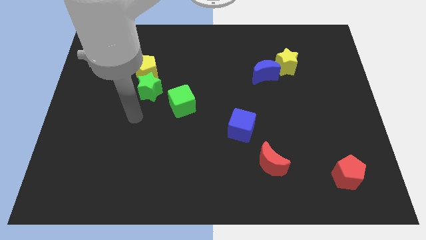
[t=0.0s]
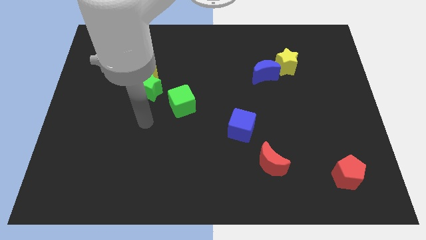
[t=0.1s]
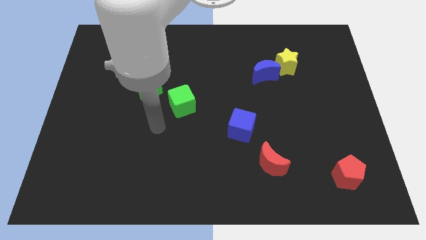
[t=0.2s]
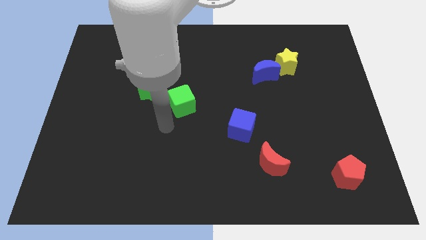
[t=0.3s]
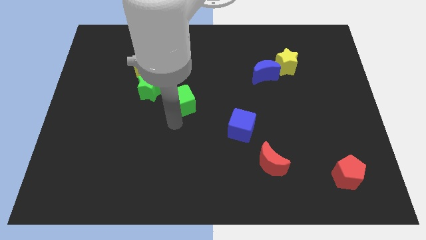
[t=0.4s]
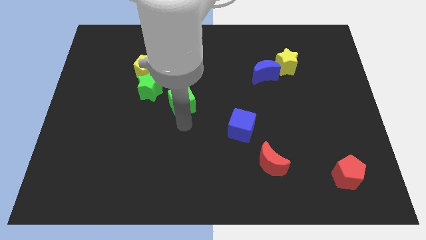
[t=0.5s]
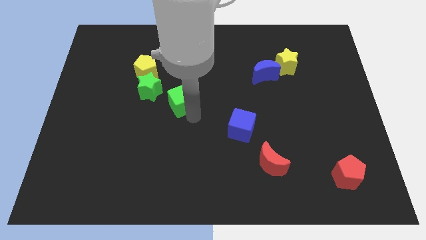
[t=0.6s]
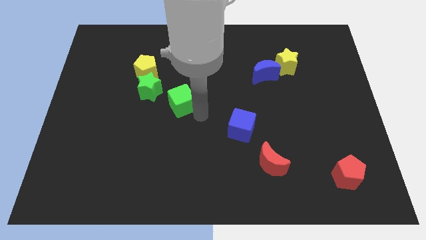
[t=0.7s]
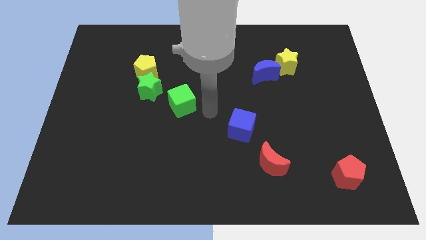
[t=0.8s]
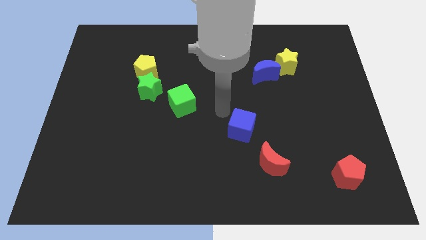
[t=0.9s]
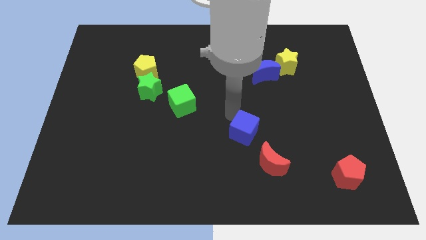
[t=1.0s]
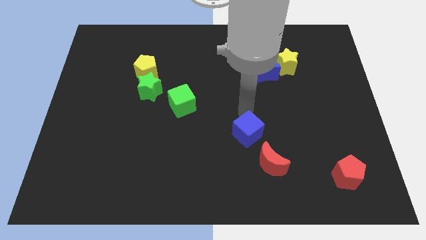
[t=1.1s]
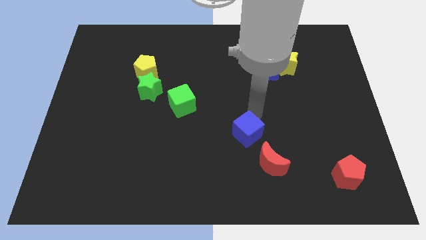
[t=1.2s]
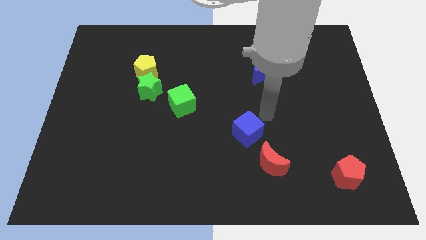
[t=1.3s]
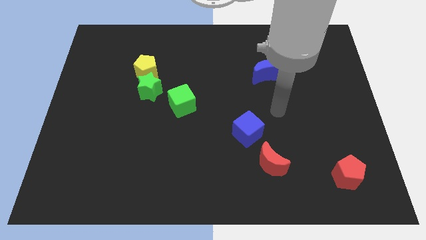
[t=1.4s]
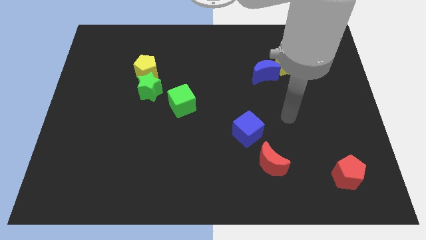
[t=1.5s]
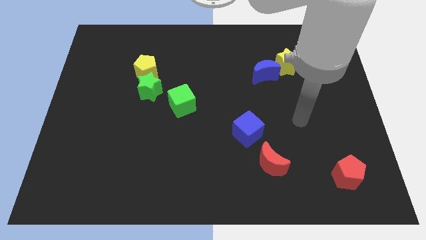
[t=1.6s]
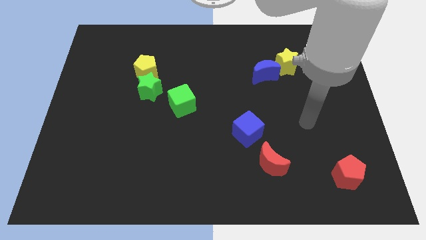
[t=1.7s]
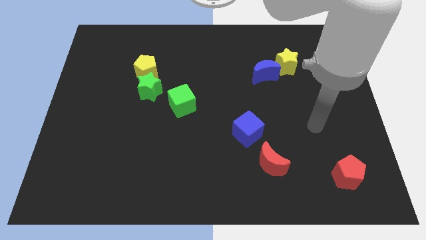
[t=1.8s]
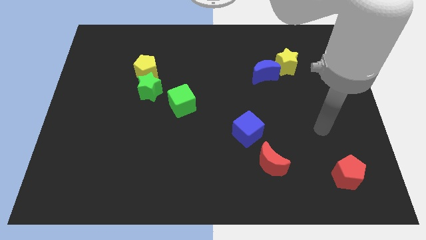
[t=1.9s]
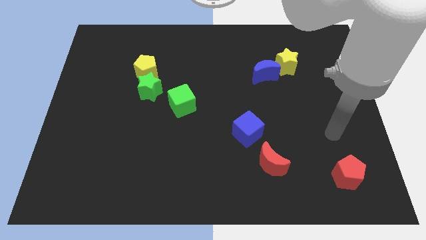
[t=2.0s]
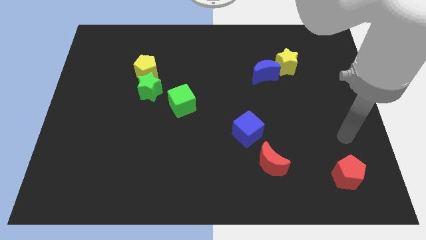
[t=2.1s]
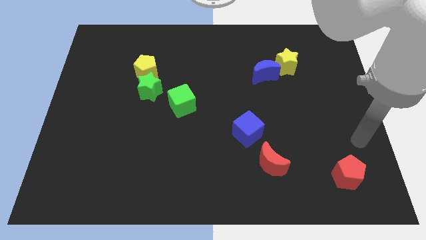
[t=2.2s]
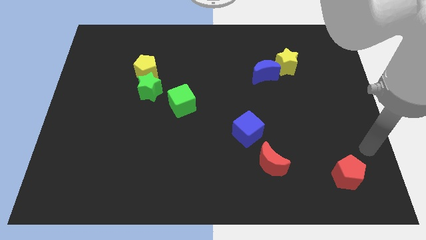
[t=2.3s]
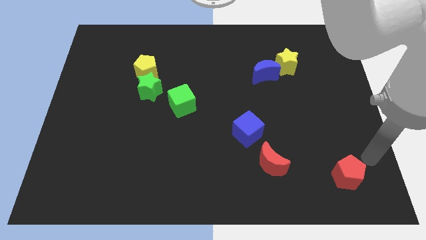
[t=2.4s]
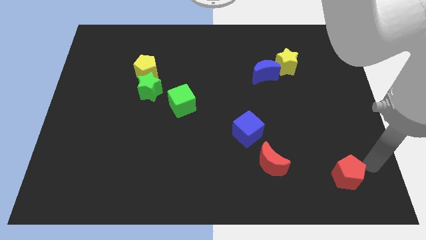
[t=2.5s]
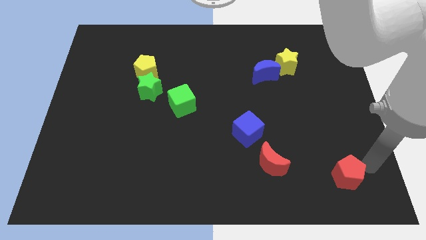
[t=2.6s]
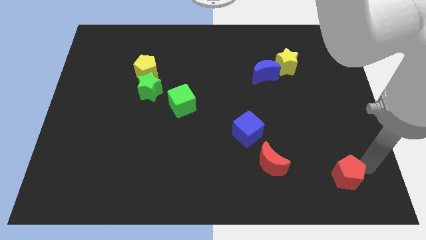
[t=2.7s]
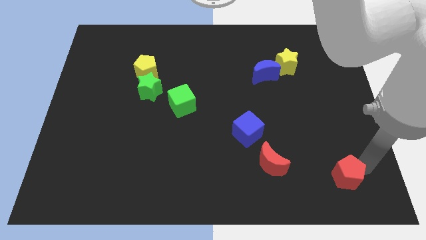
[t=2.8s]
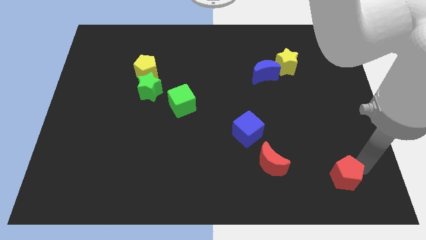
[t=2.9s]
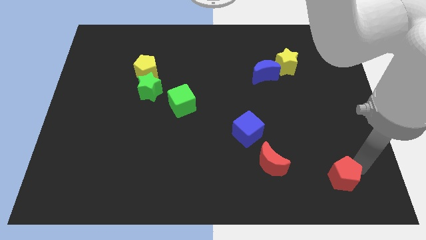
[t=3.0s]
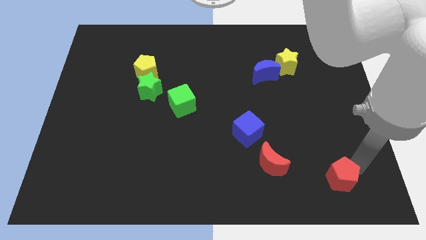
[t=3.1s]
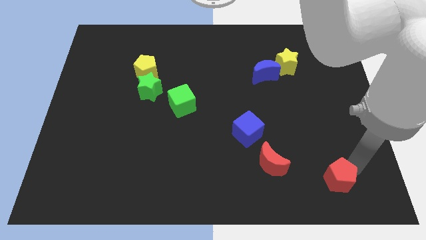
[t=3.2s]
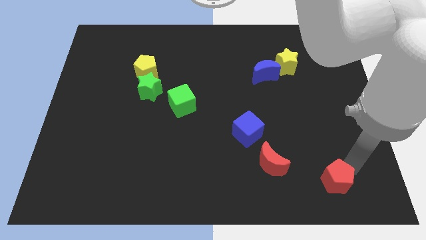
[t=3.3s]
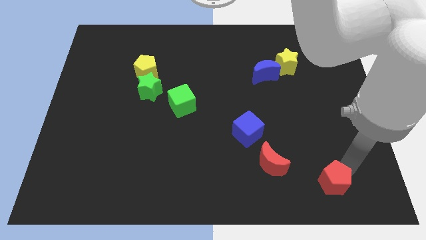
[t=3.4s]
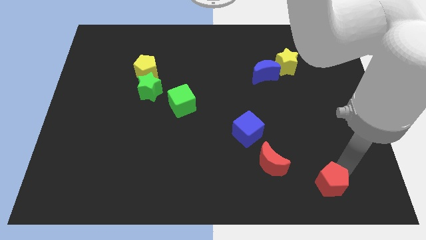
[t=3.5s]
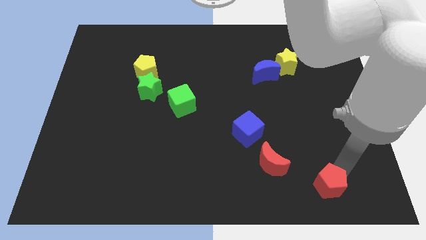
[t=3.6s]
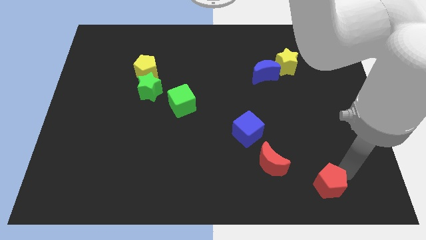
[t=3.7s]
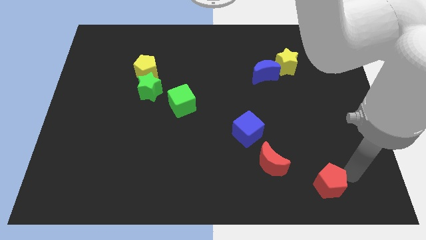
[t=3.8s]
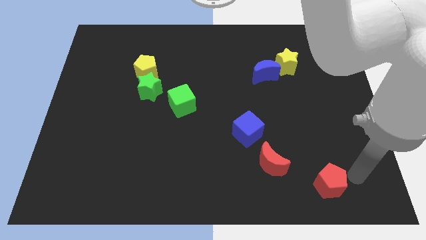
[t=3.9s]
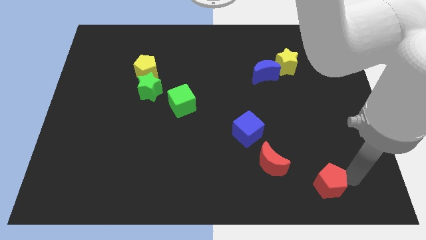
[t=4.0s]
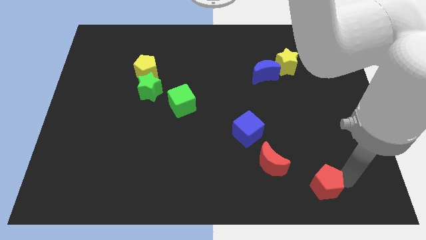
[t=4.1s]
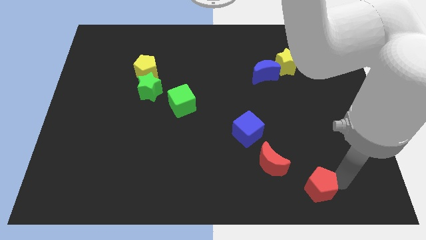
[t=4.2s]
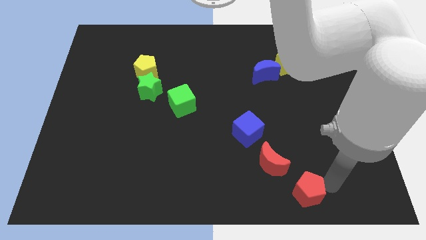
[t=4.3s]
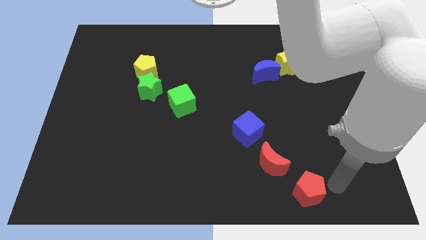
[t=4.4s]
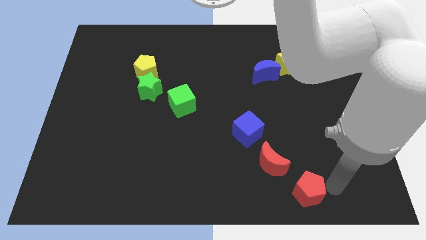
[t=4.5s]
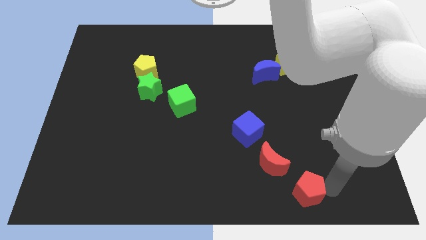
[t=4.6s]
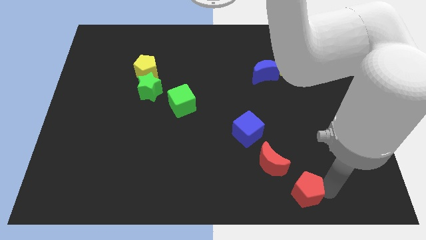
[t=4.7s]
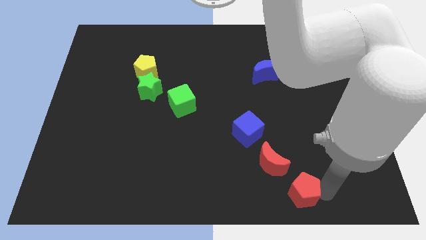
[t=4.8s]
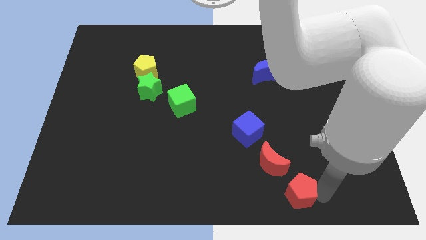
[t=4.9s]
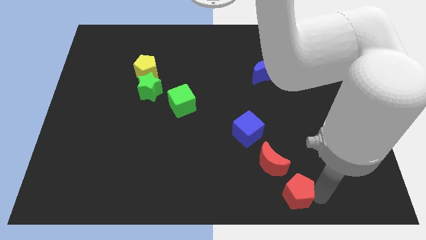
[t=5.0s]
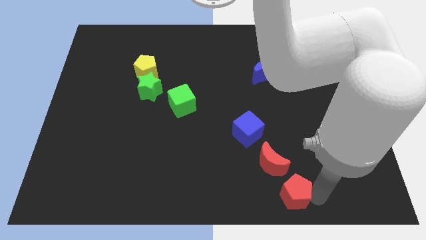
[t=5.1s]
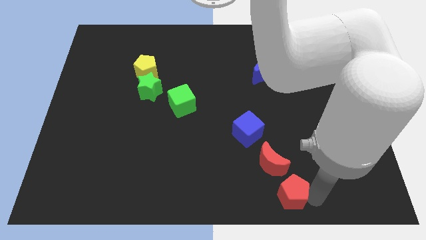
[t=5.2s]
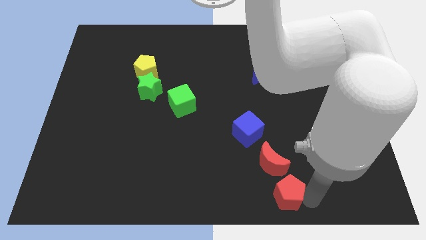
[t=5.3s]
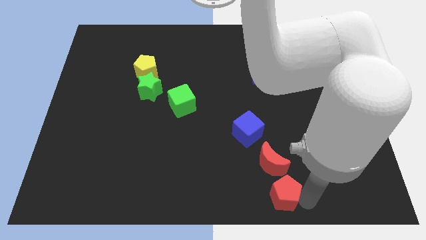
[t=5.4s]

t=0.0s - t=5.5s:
slide the red pentagon to the bottom

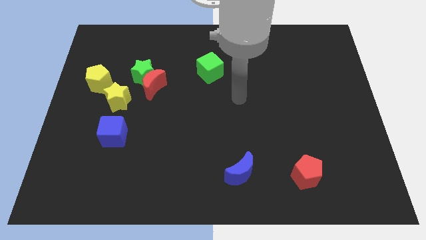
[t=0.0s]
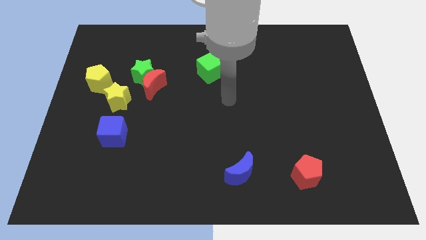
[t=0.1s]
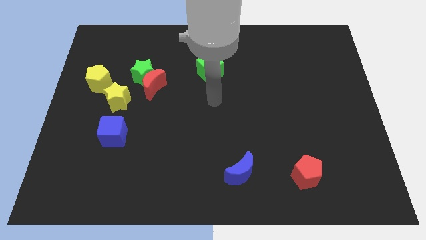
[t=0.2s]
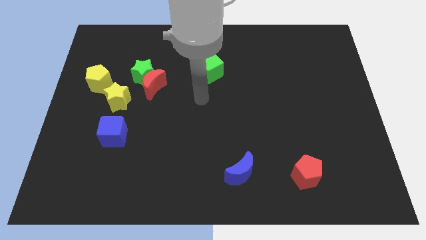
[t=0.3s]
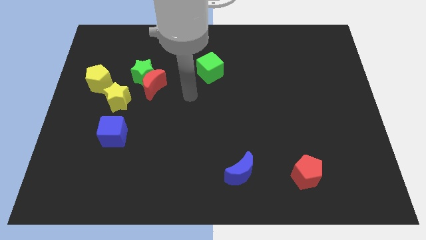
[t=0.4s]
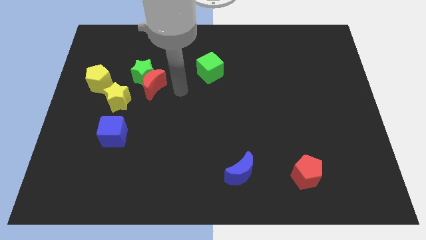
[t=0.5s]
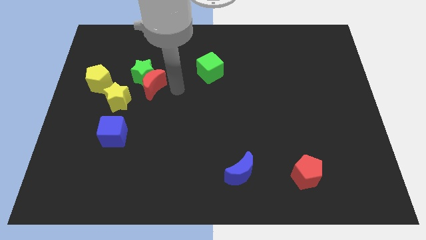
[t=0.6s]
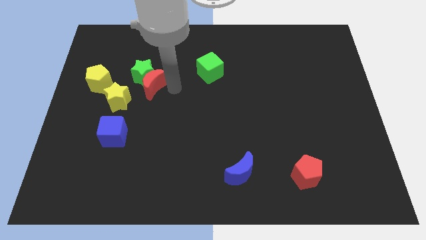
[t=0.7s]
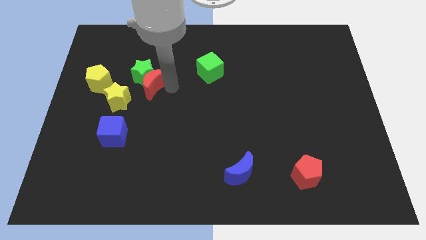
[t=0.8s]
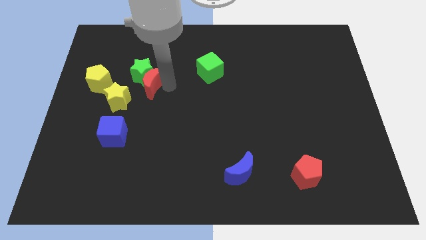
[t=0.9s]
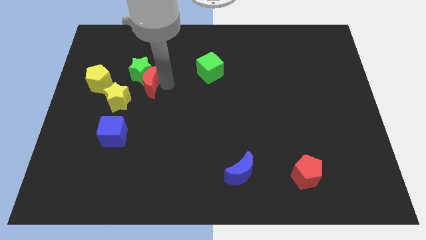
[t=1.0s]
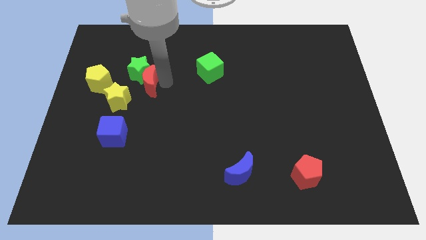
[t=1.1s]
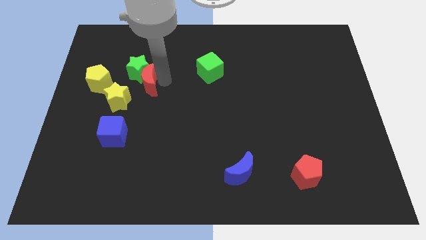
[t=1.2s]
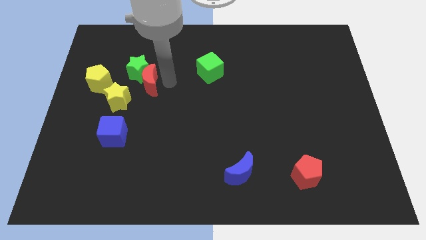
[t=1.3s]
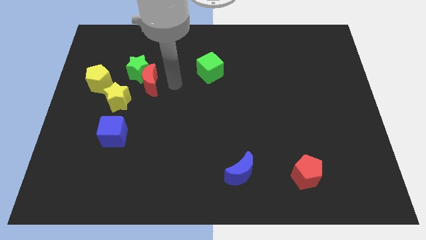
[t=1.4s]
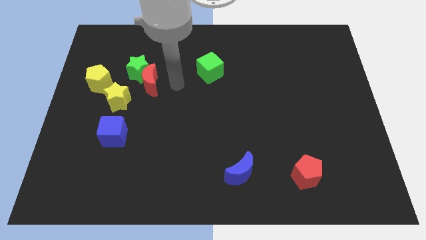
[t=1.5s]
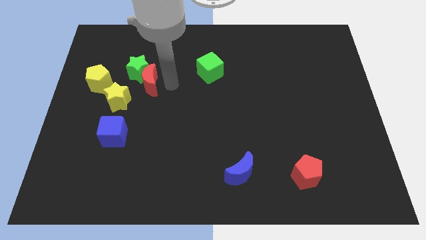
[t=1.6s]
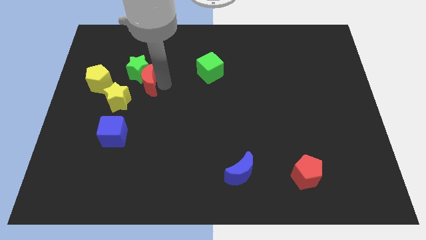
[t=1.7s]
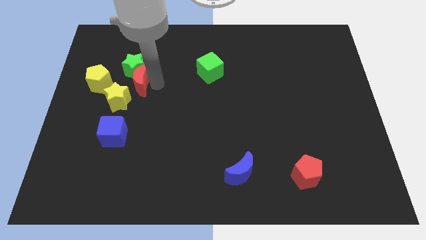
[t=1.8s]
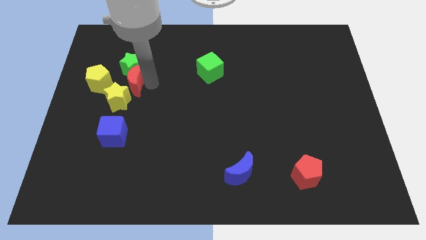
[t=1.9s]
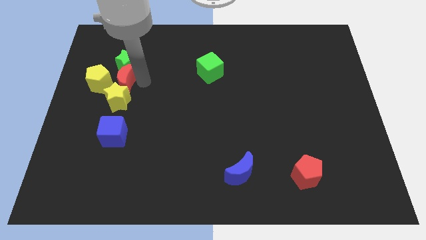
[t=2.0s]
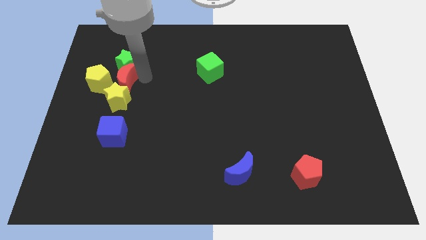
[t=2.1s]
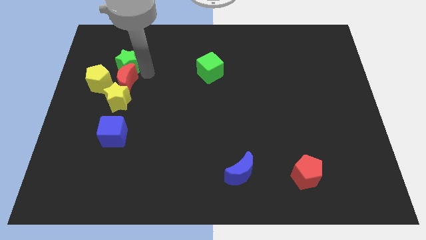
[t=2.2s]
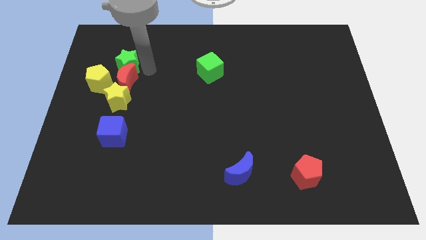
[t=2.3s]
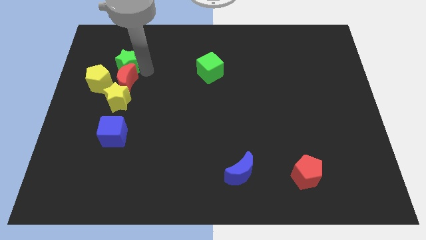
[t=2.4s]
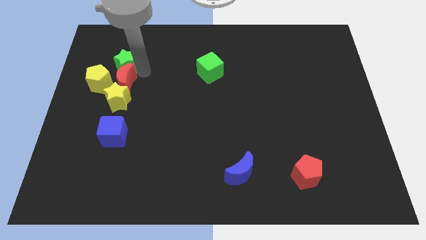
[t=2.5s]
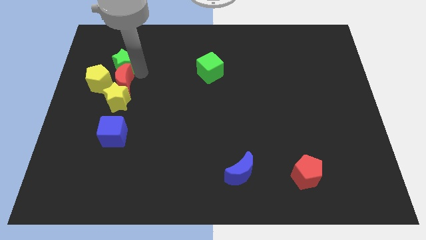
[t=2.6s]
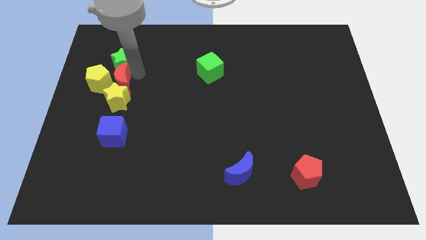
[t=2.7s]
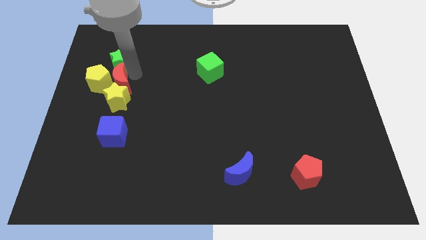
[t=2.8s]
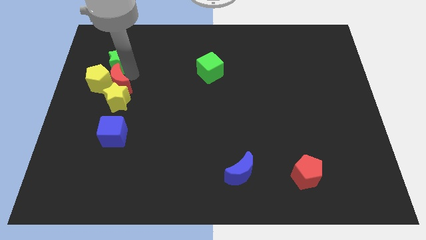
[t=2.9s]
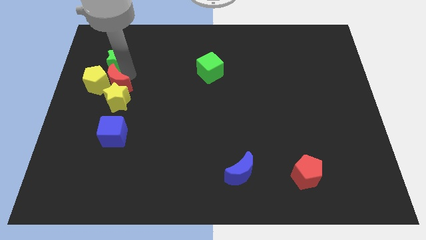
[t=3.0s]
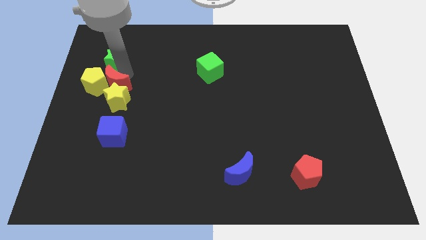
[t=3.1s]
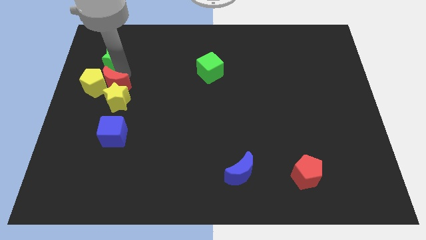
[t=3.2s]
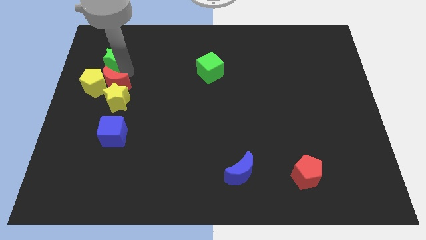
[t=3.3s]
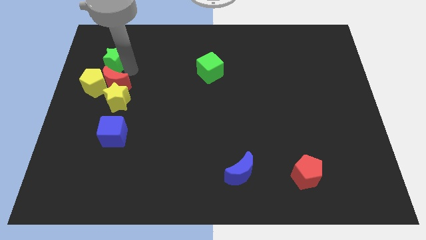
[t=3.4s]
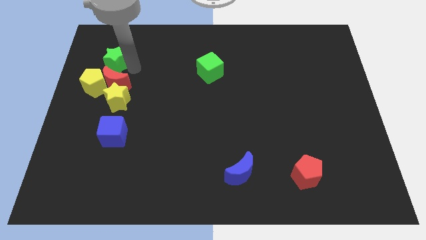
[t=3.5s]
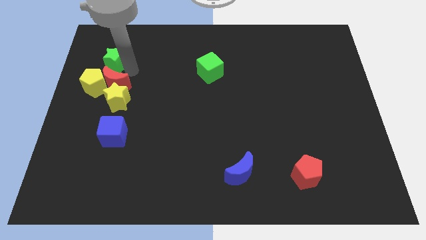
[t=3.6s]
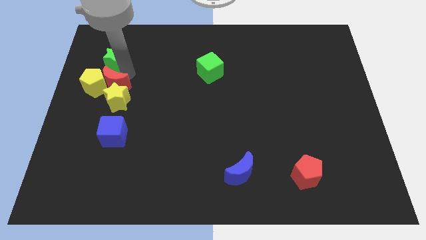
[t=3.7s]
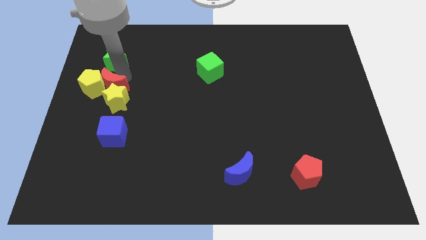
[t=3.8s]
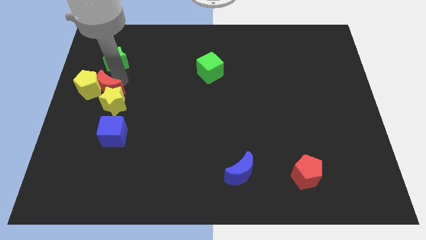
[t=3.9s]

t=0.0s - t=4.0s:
push the red moon to the left side of the board
